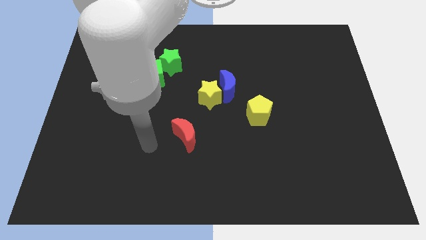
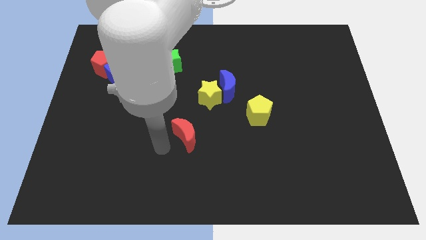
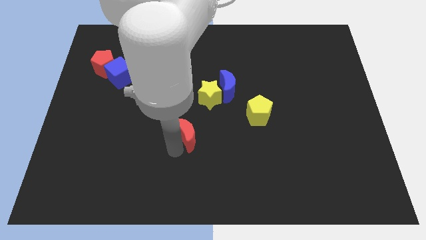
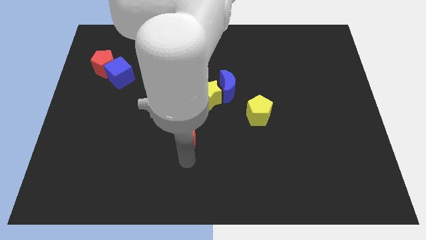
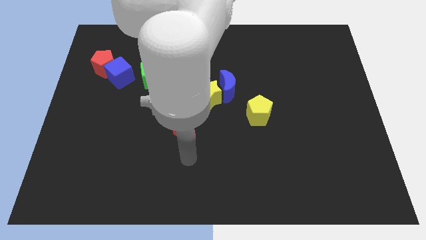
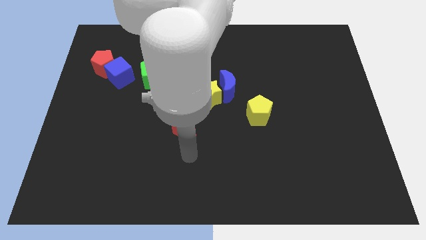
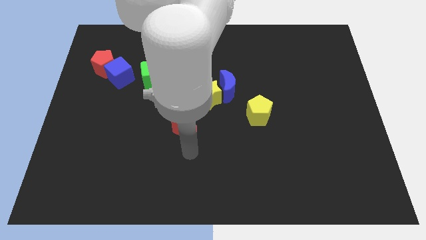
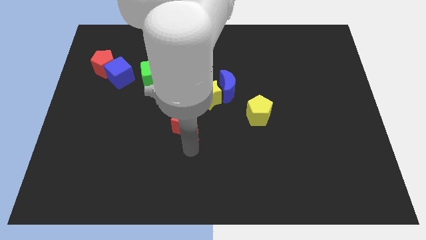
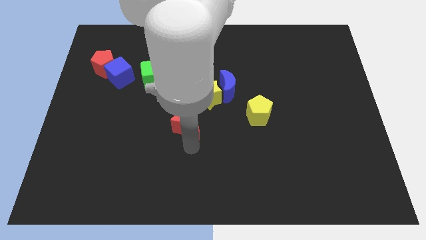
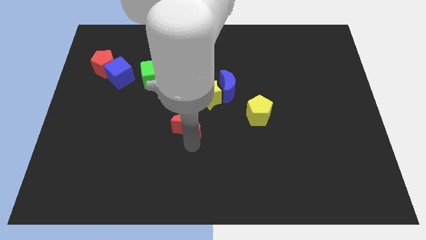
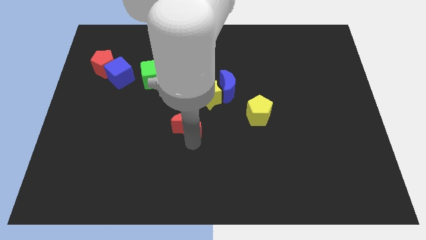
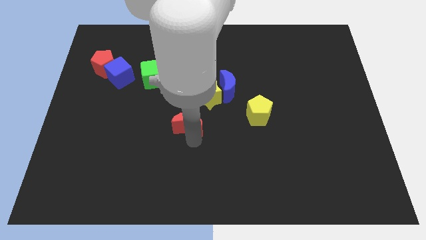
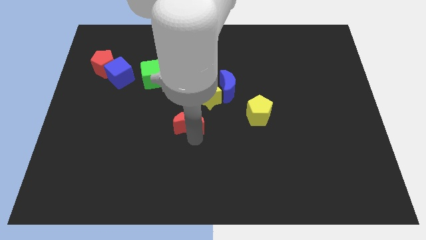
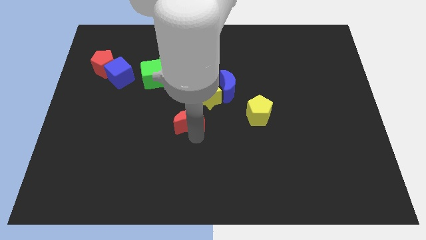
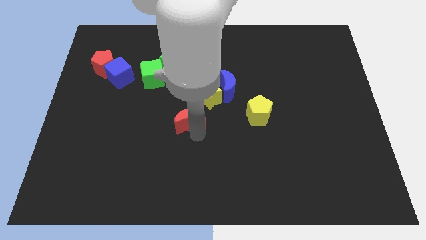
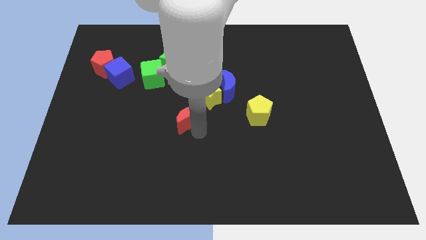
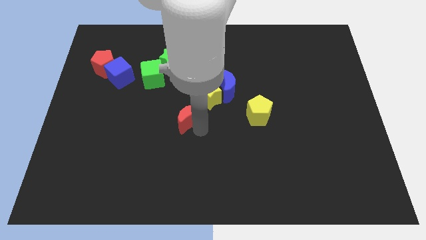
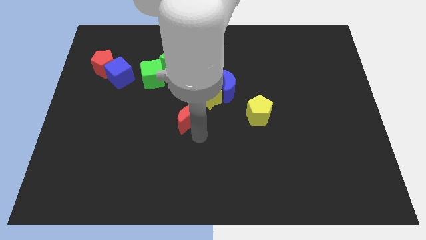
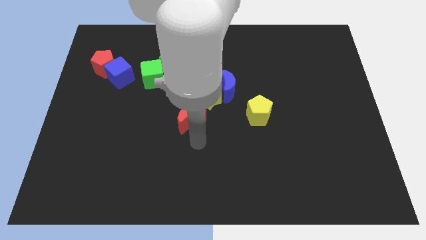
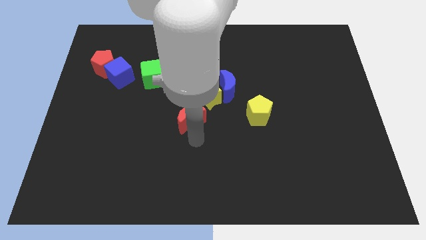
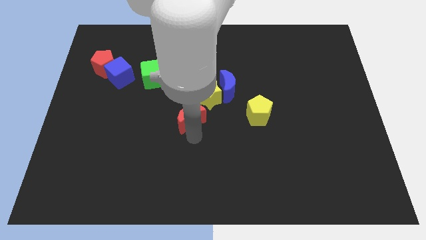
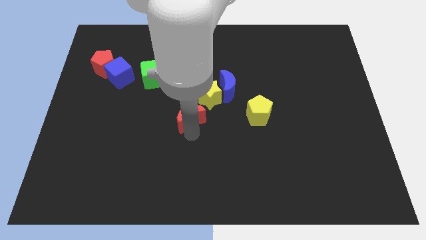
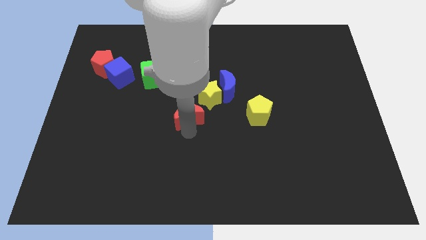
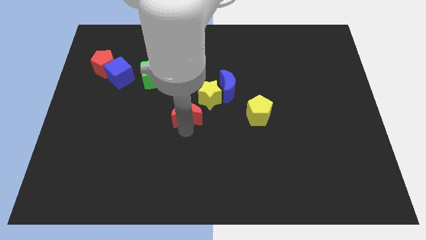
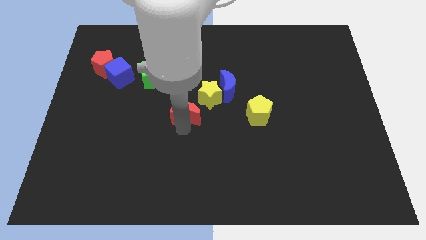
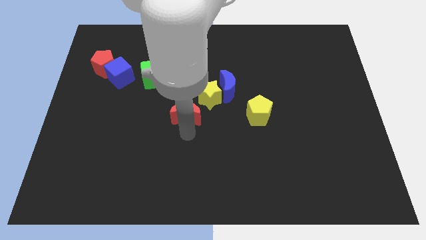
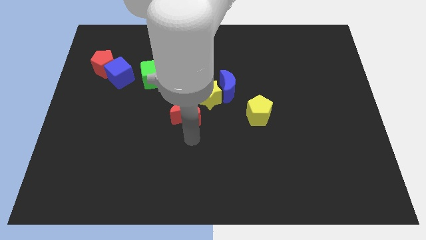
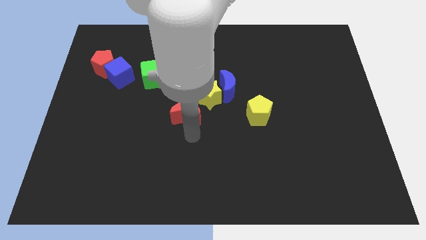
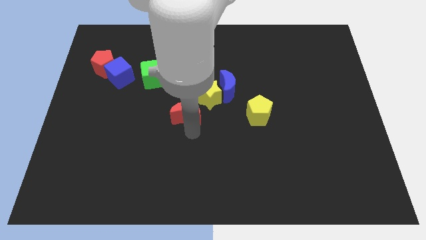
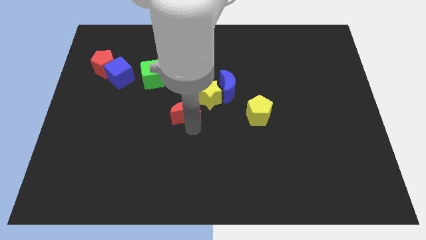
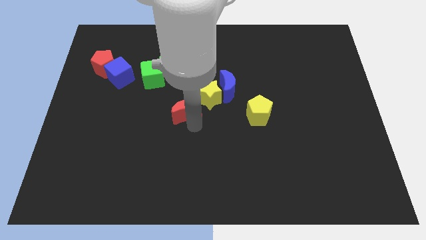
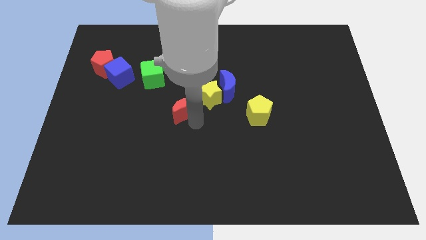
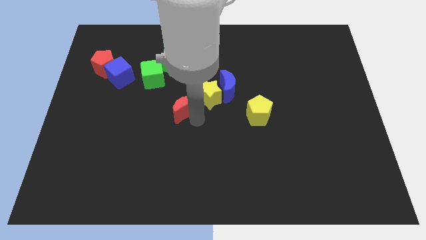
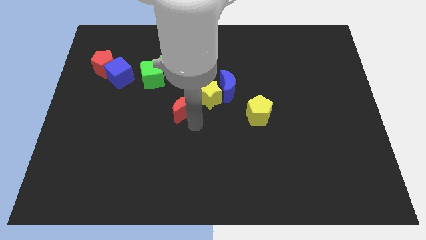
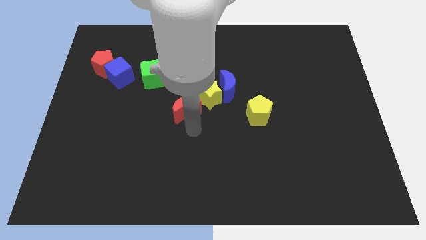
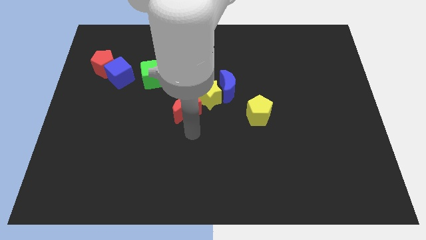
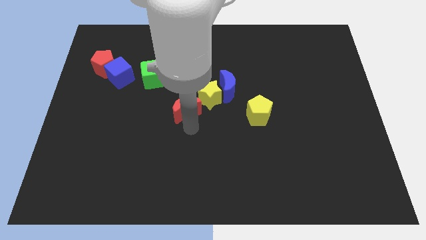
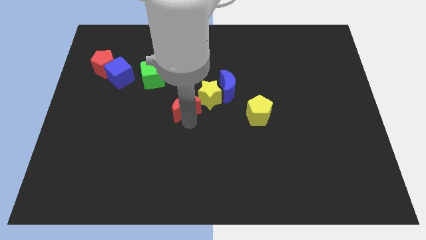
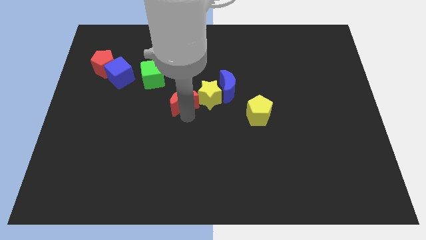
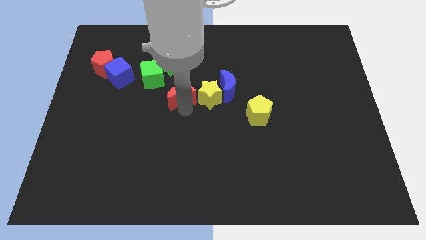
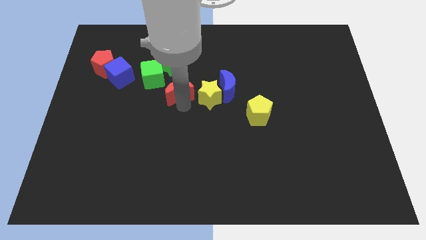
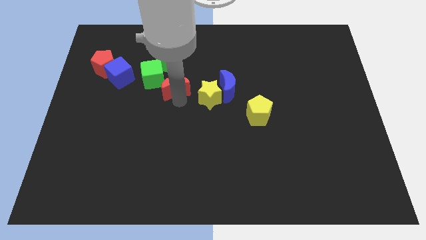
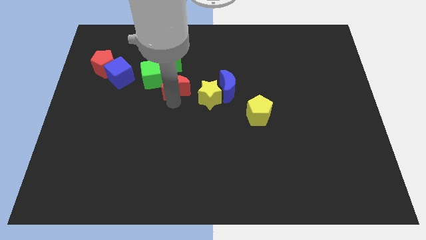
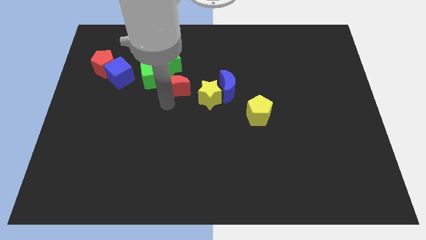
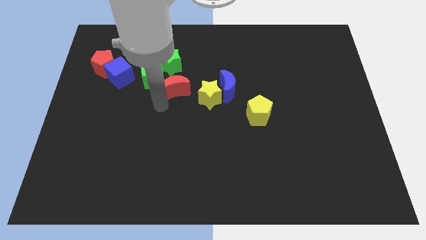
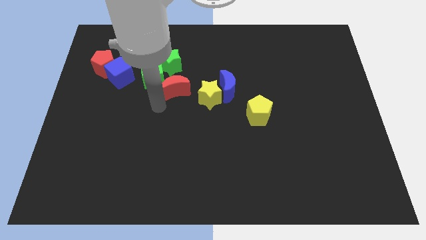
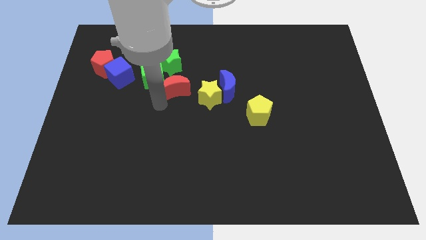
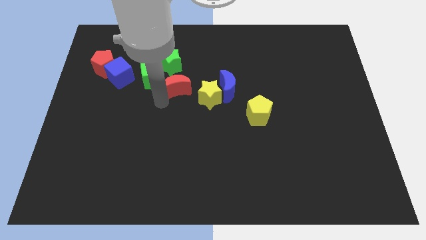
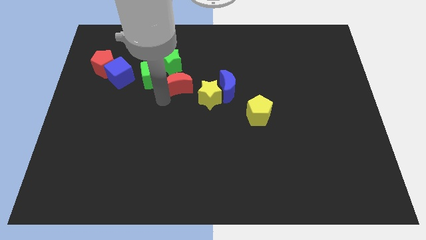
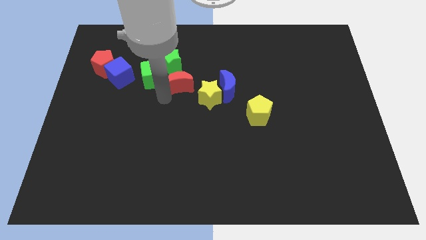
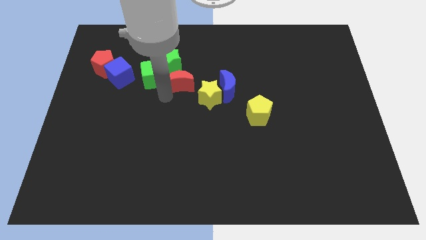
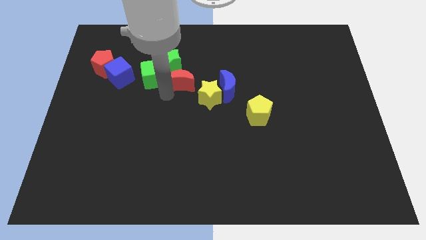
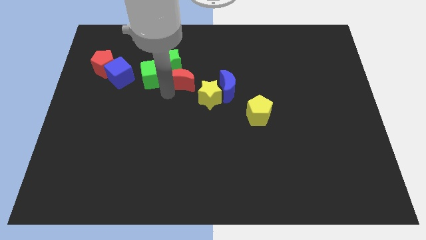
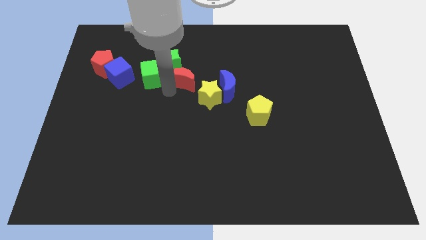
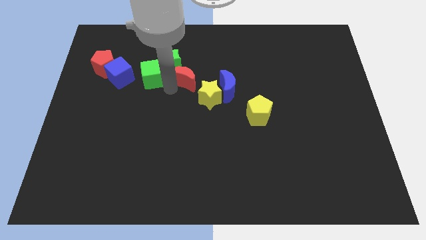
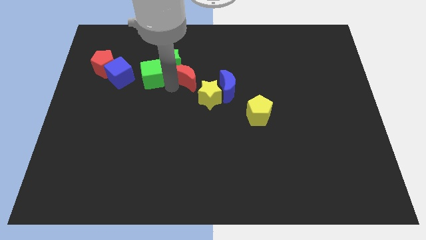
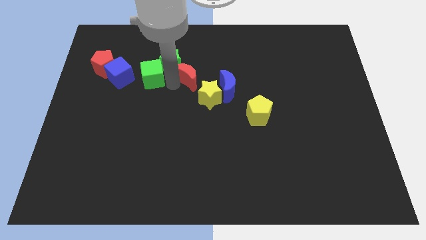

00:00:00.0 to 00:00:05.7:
push the red moon to the top left of the blue moon

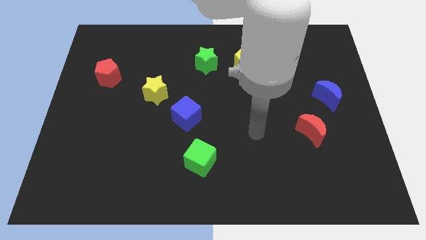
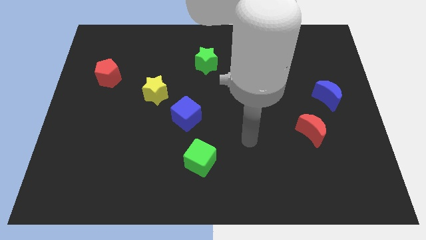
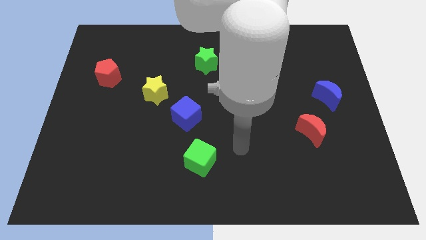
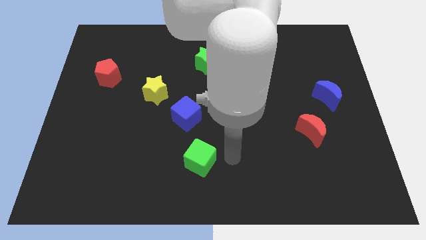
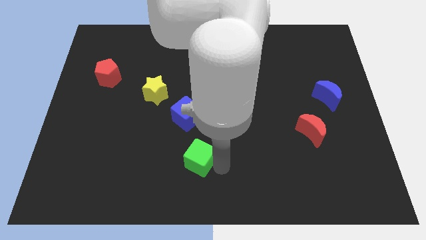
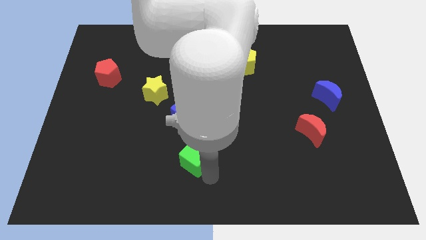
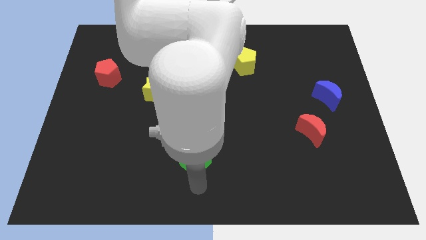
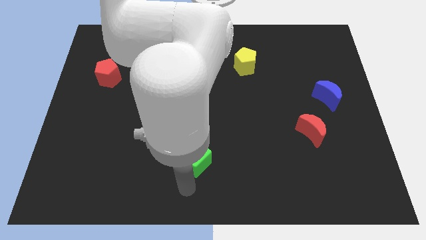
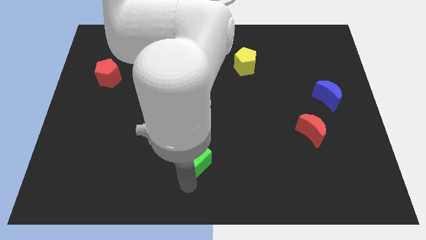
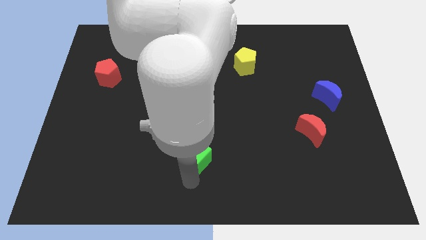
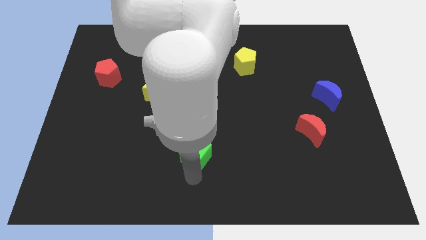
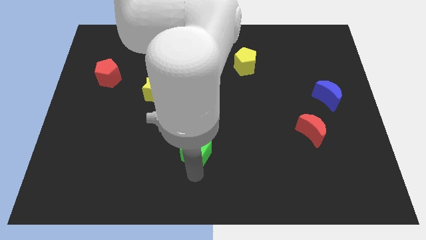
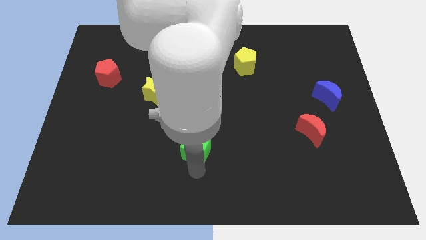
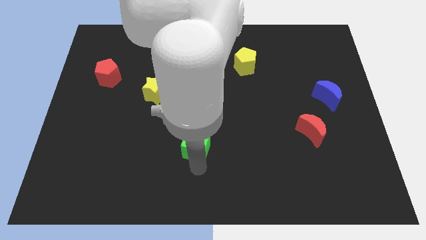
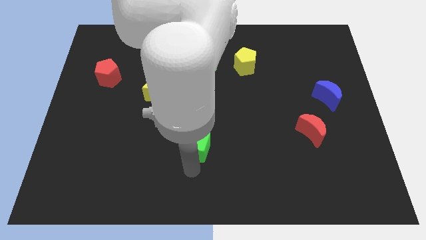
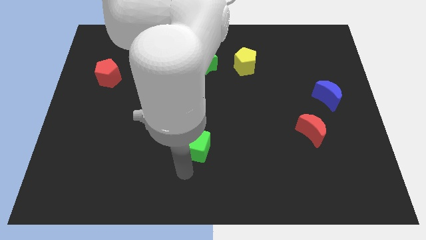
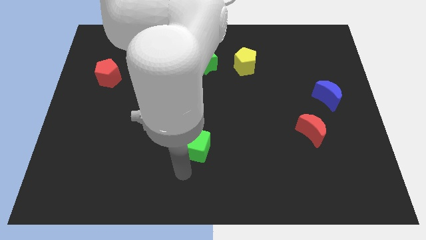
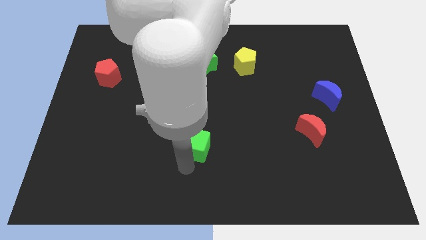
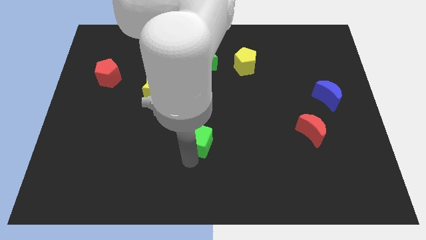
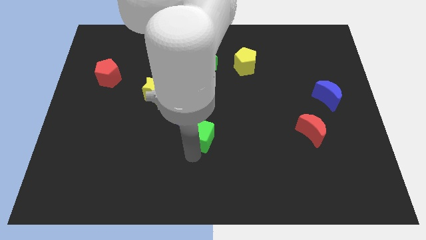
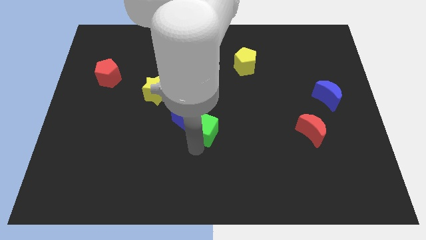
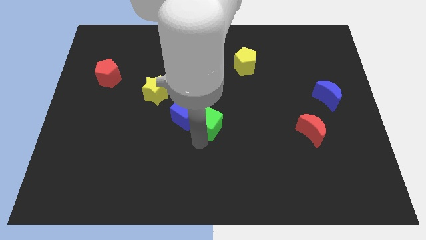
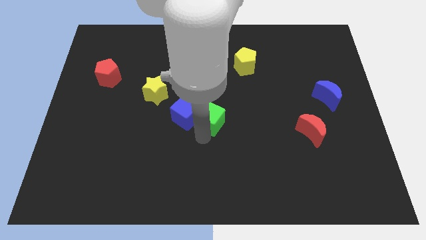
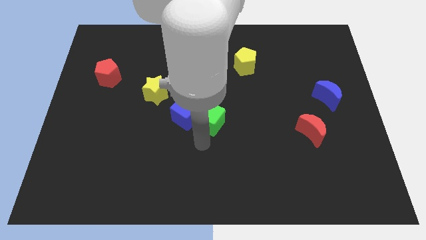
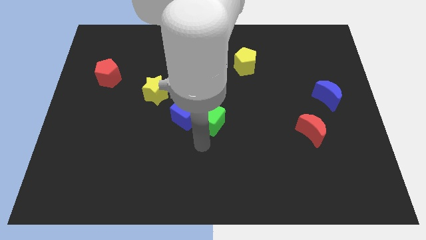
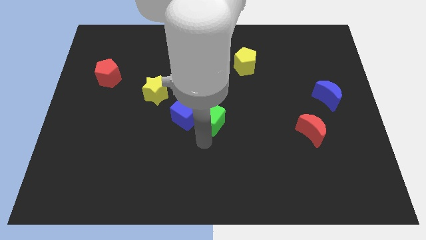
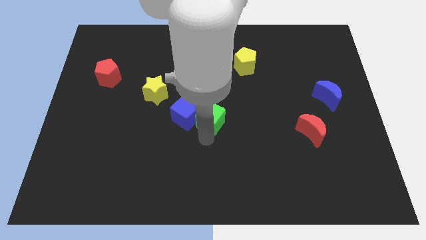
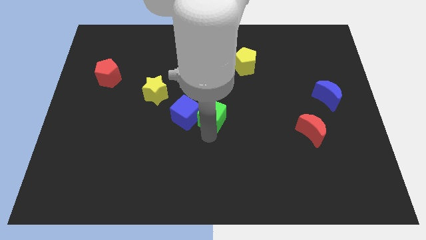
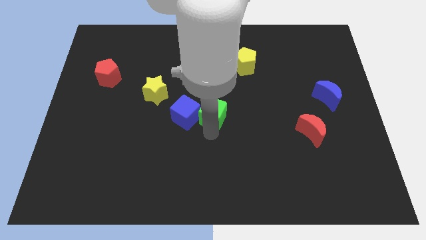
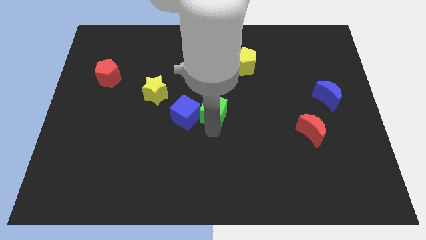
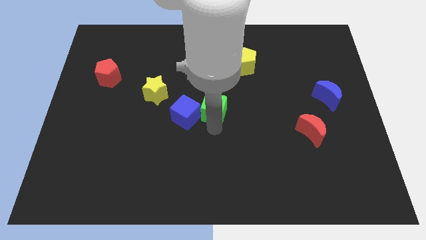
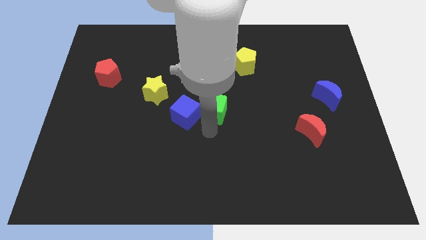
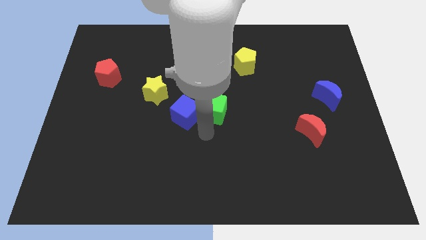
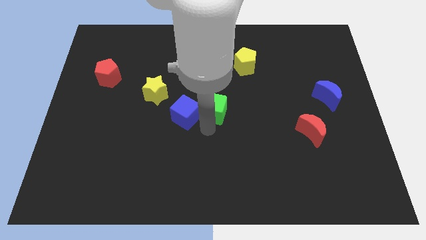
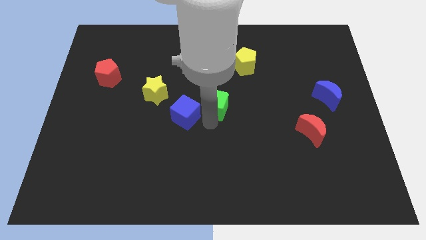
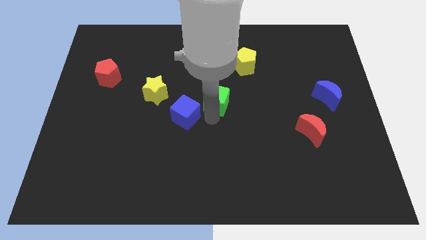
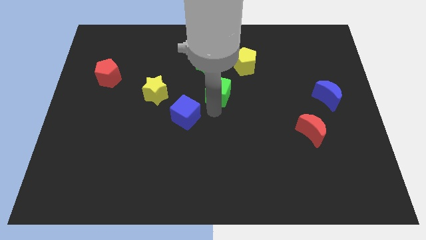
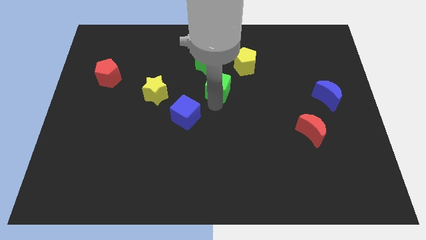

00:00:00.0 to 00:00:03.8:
slide the green cube to the bottom right side of the green star
